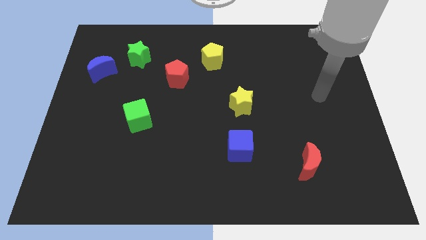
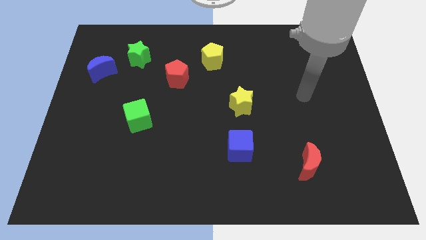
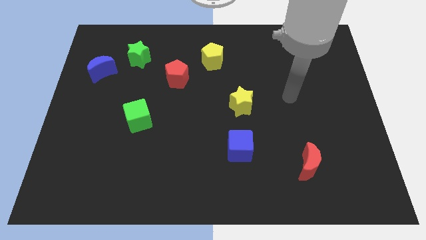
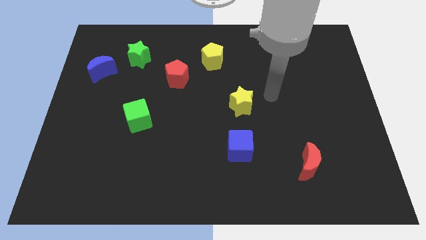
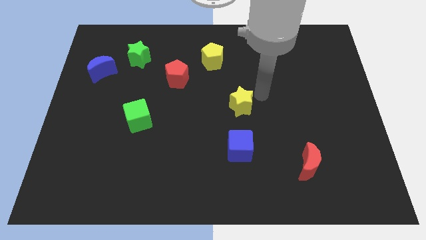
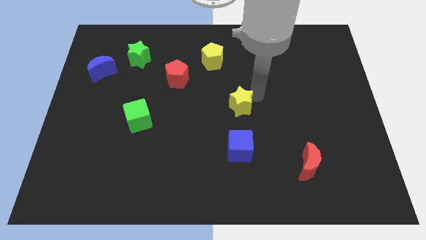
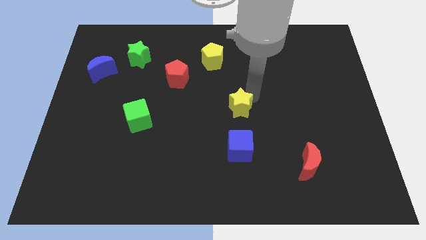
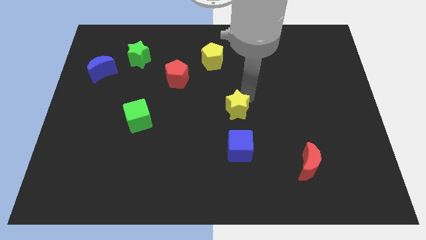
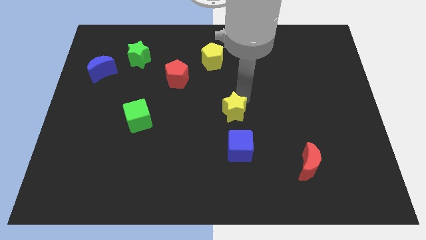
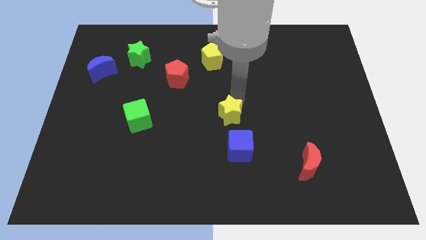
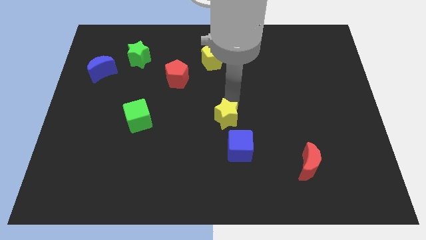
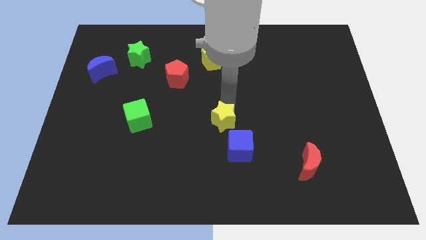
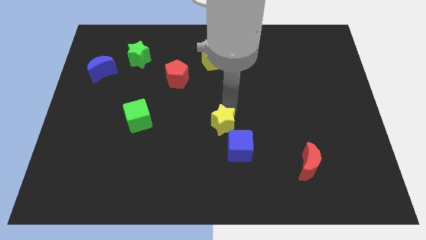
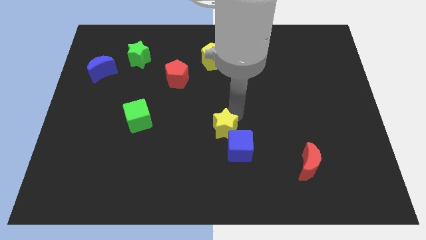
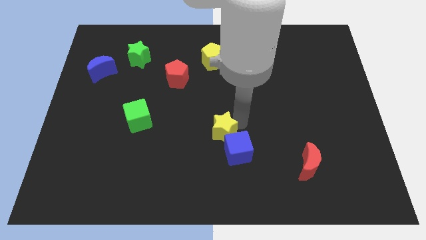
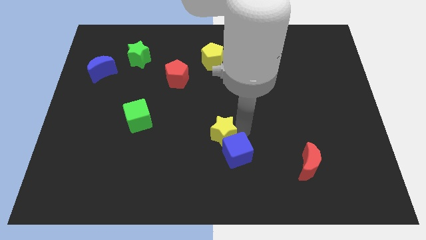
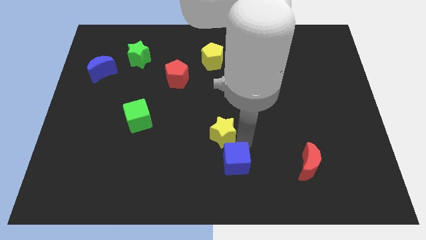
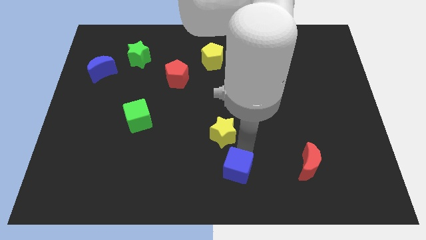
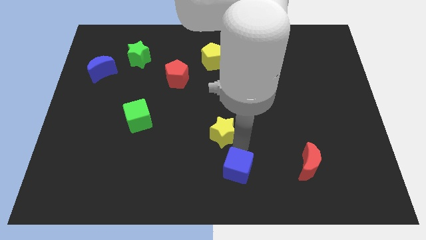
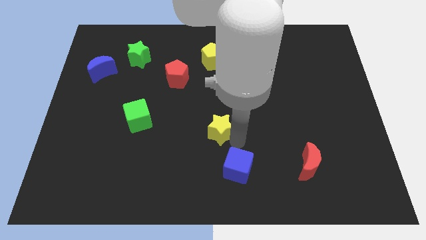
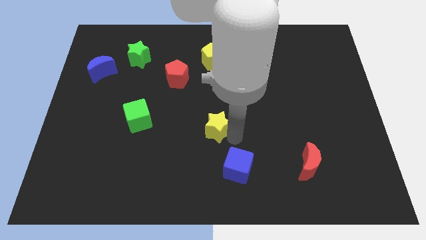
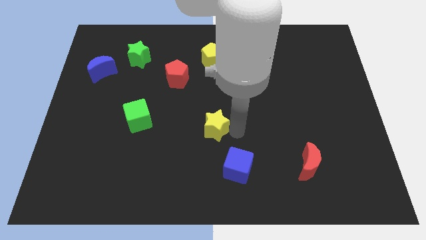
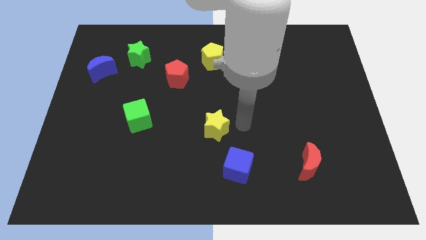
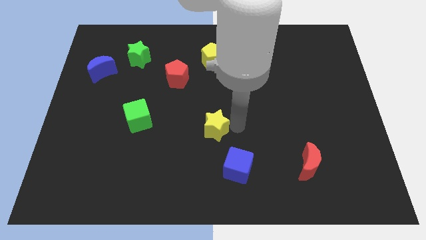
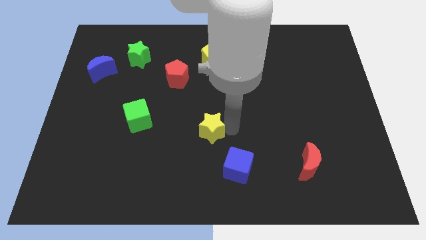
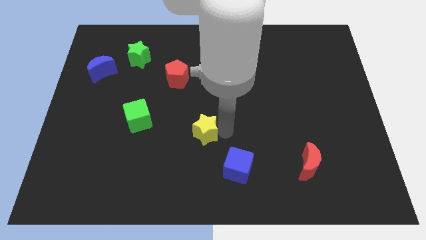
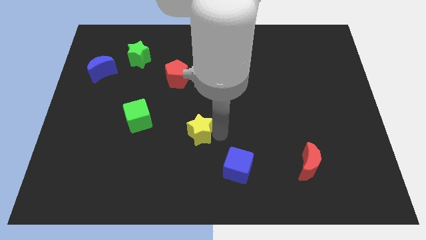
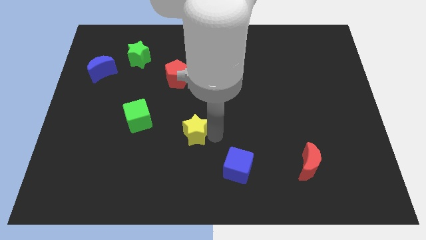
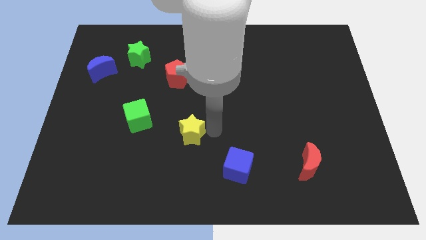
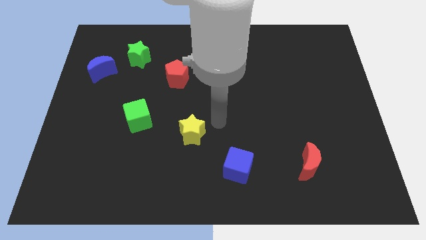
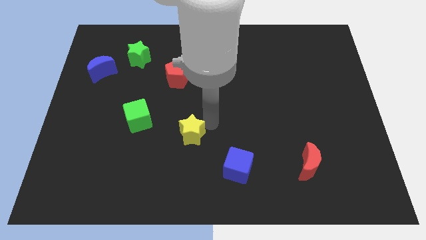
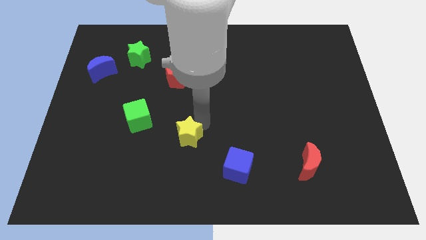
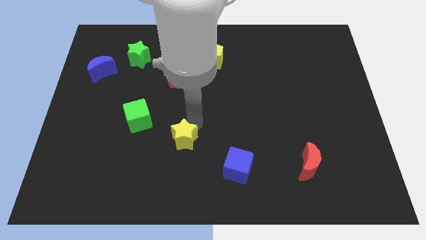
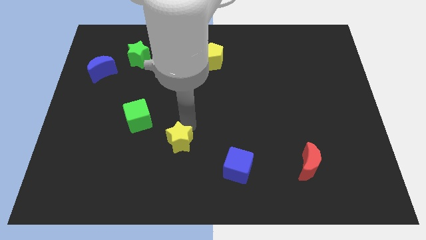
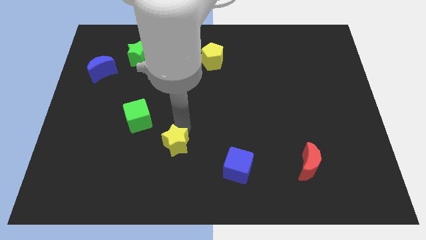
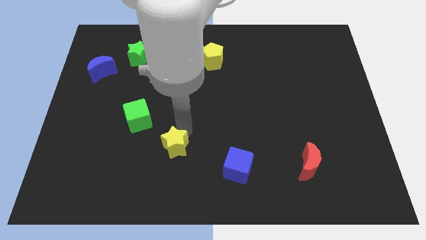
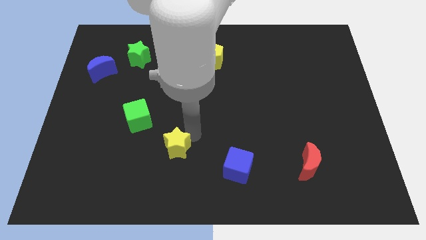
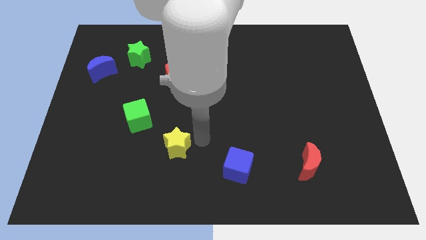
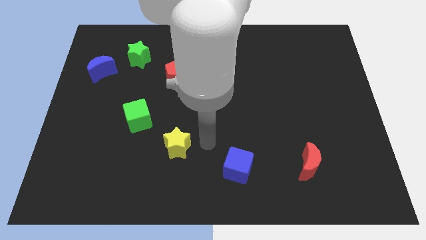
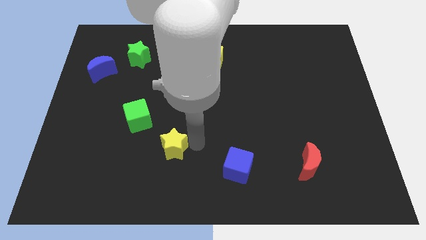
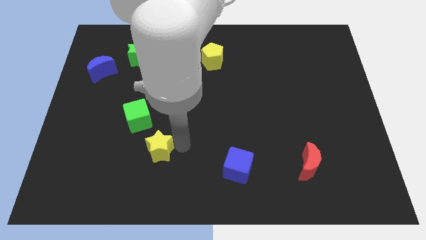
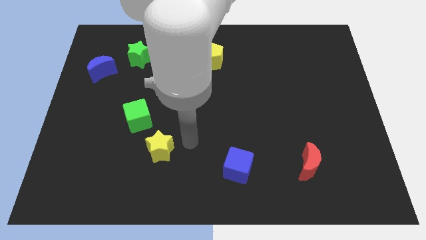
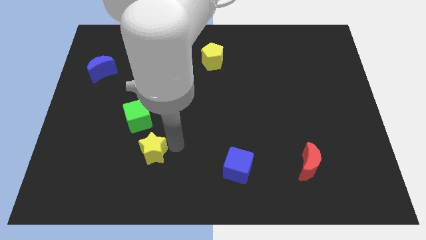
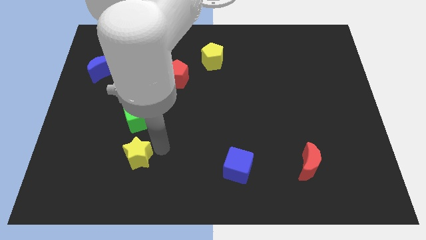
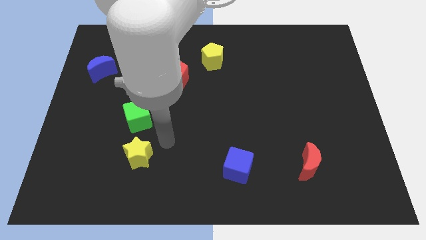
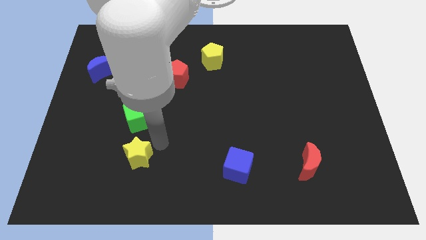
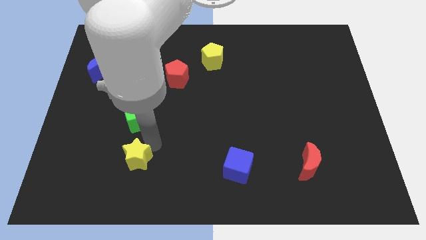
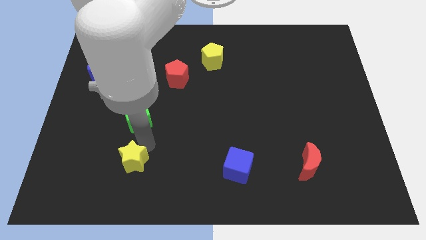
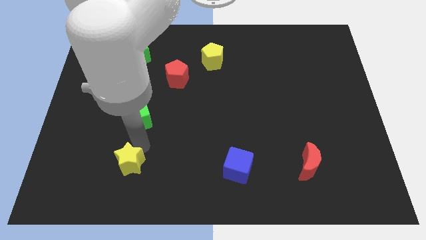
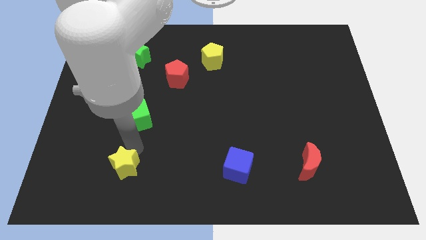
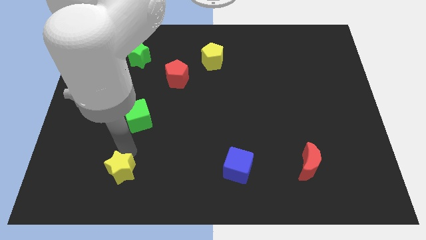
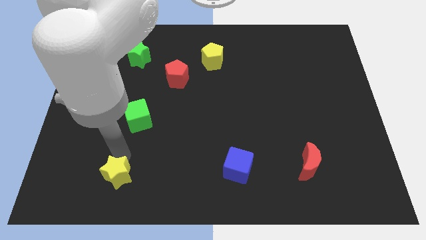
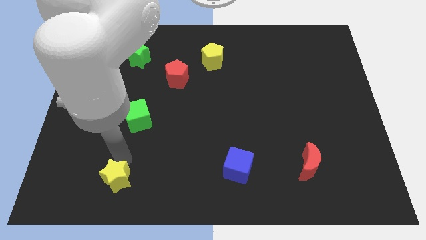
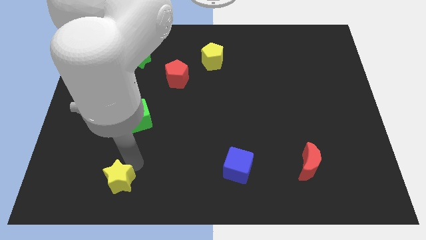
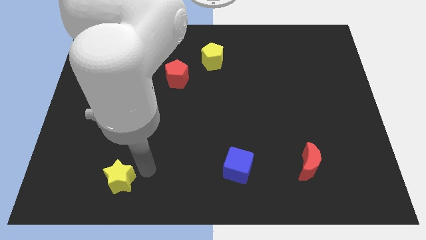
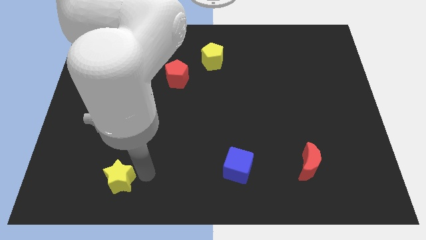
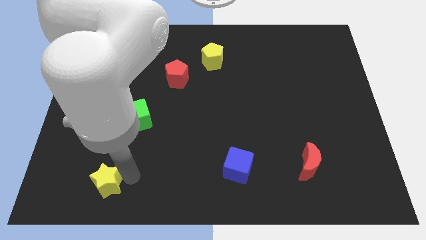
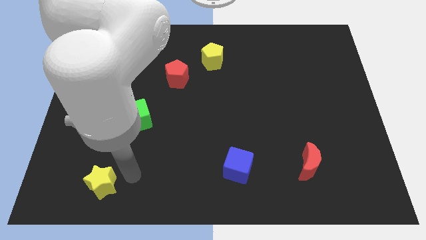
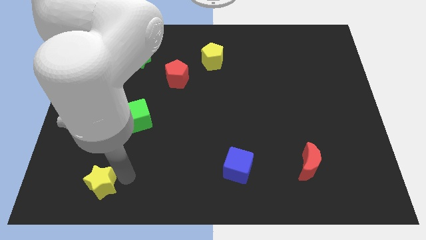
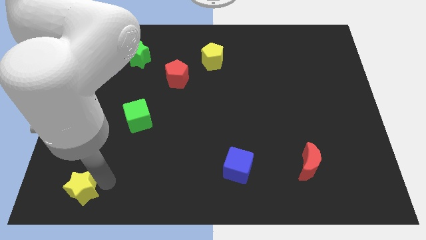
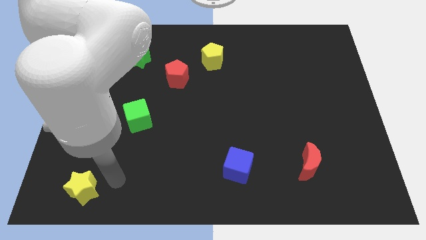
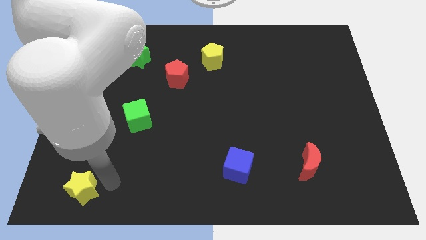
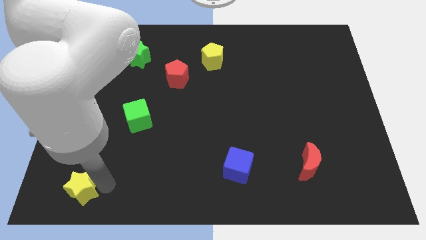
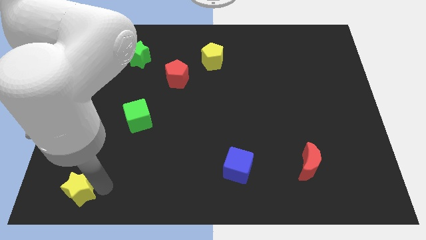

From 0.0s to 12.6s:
slide the yellow star to the bottom left corner

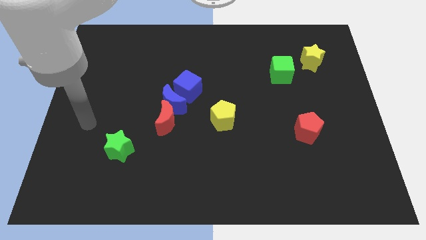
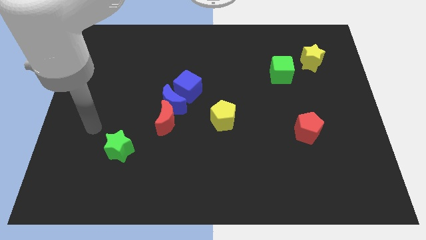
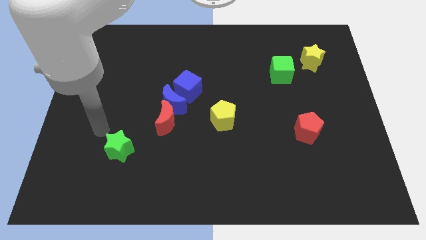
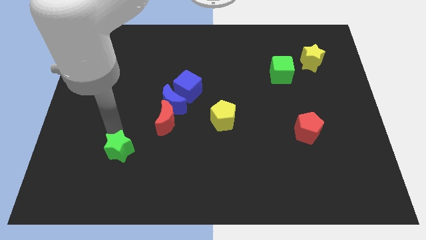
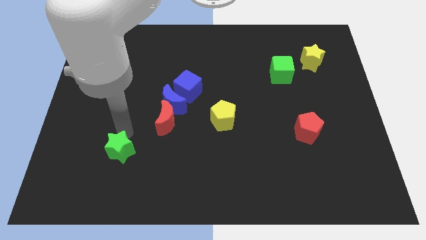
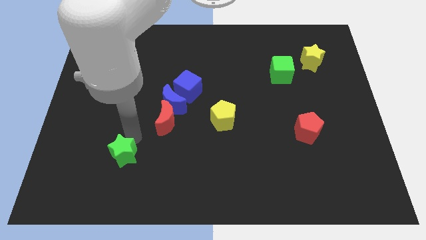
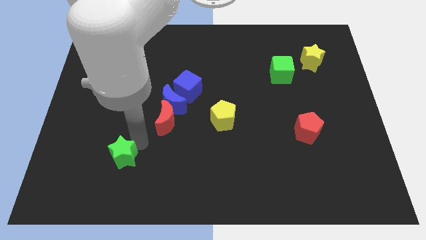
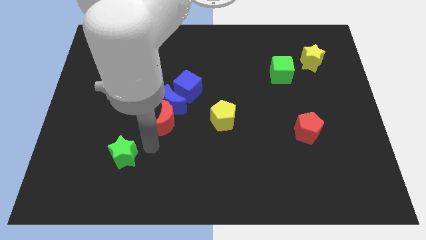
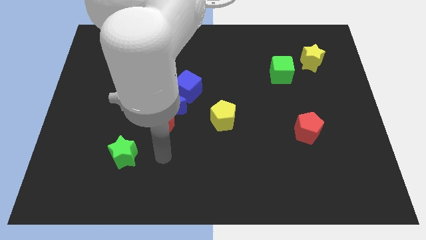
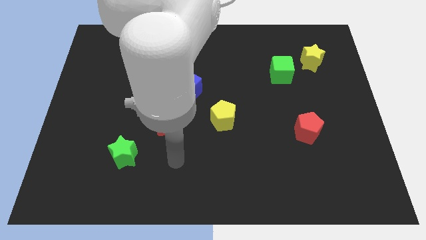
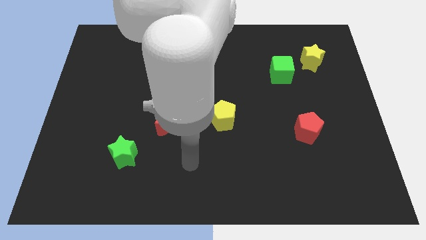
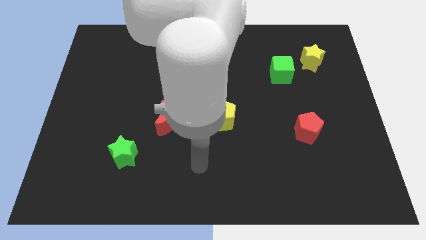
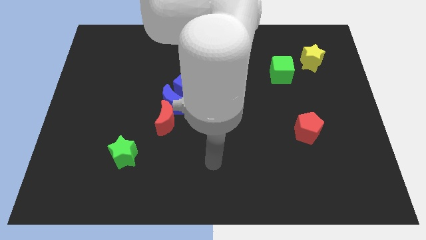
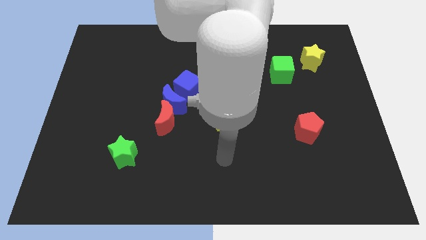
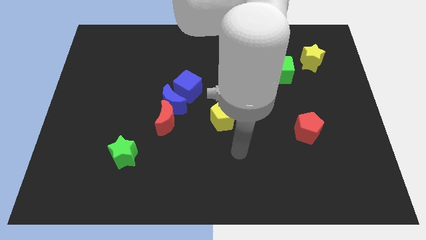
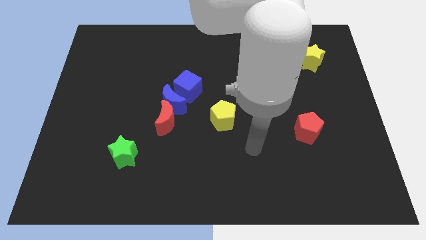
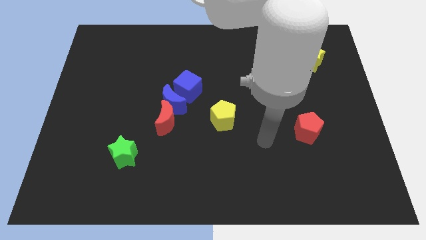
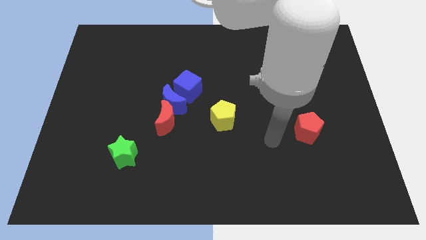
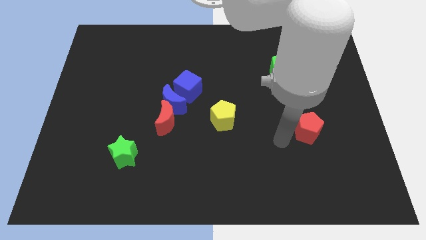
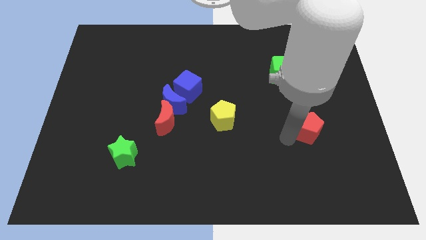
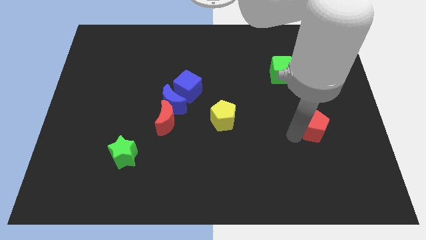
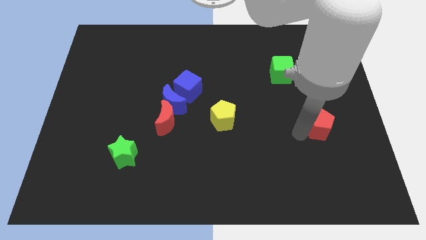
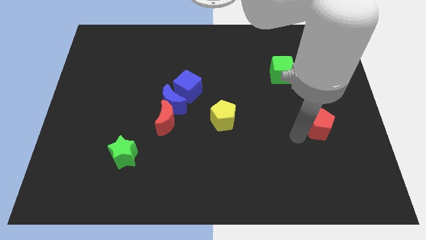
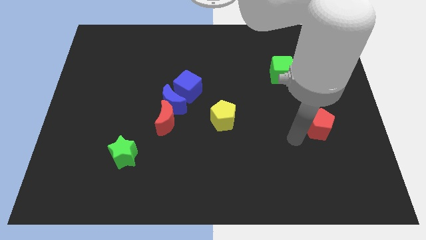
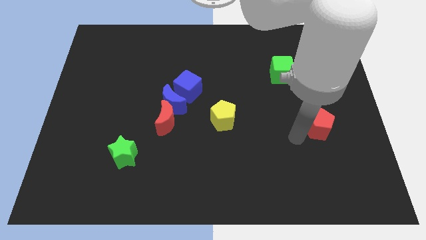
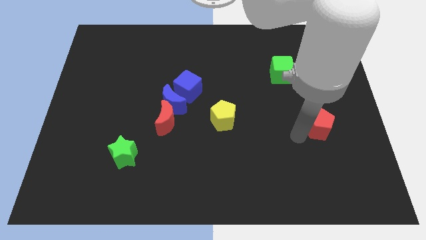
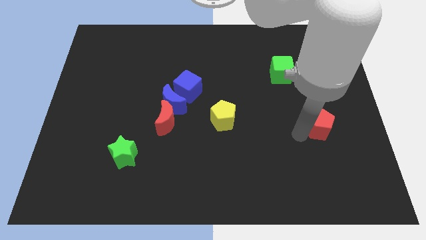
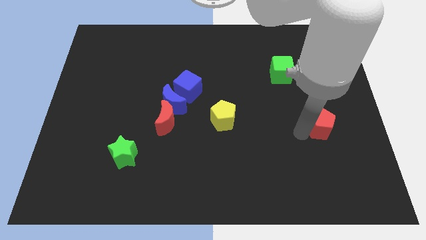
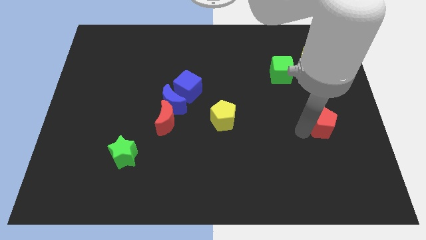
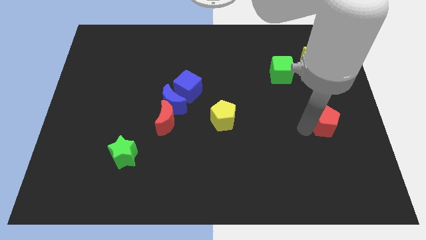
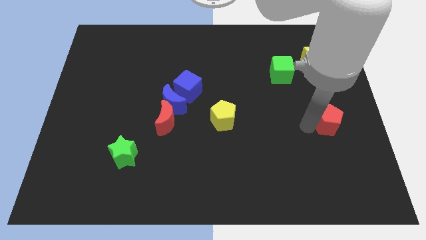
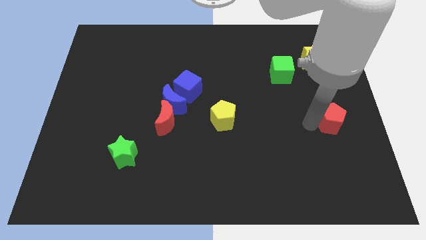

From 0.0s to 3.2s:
move the red pentagon to the center right
